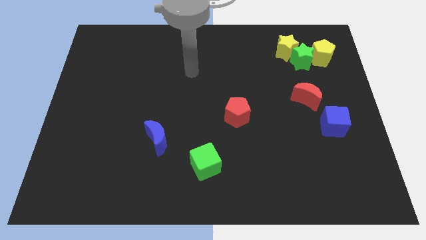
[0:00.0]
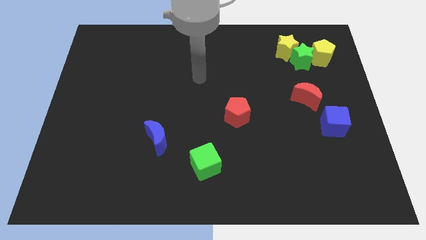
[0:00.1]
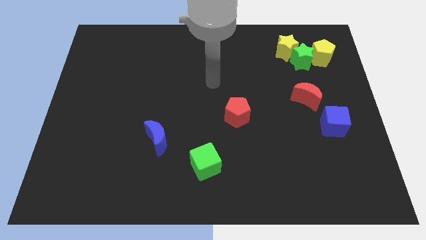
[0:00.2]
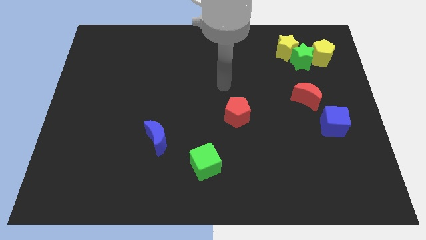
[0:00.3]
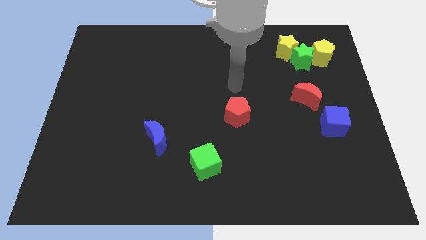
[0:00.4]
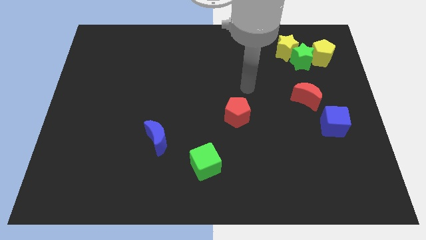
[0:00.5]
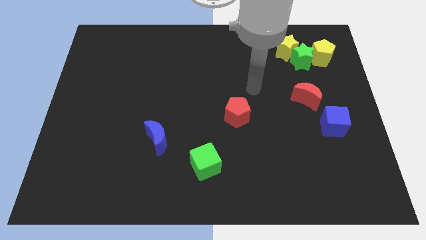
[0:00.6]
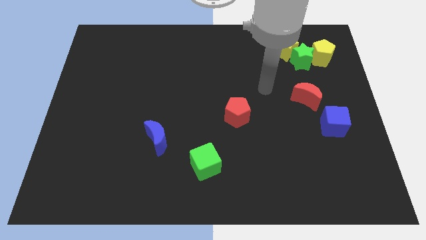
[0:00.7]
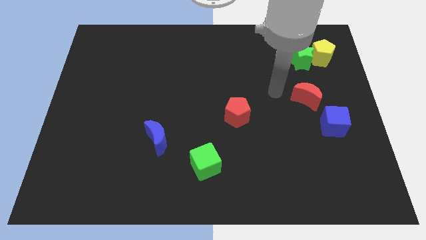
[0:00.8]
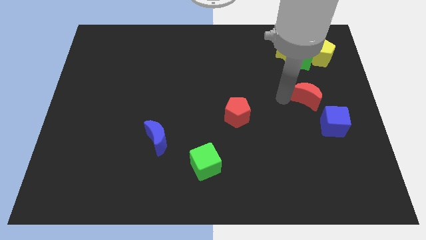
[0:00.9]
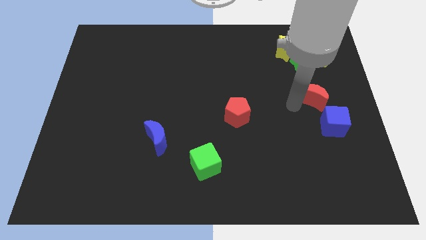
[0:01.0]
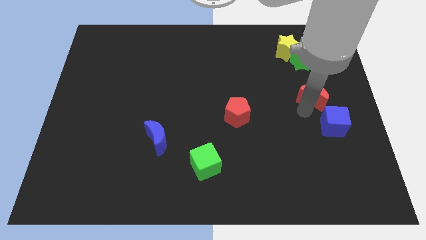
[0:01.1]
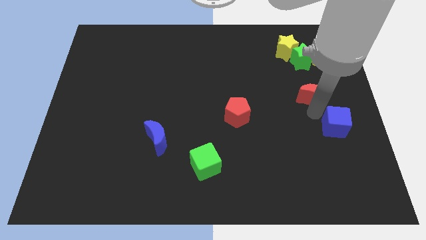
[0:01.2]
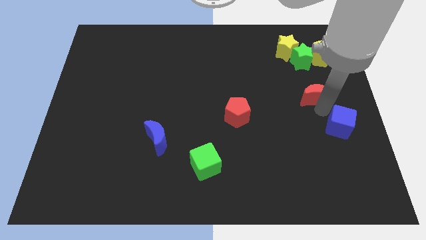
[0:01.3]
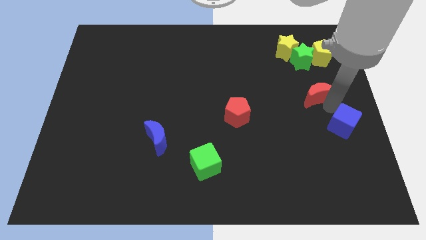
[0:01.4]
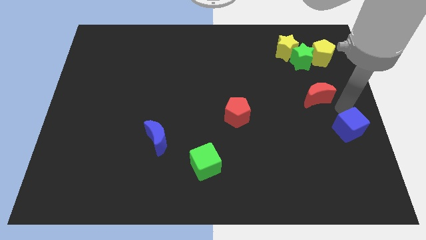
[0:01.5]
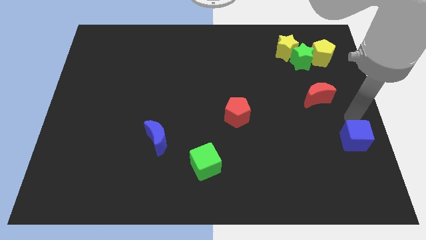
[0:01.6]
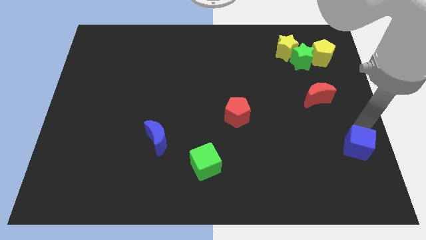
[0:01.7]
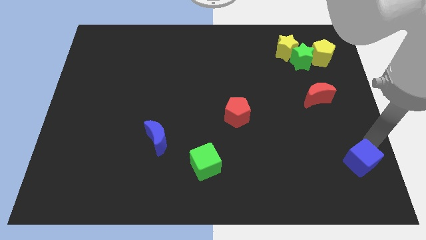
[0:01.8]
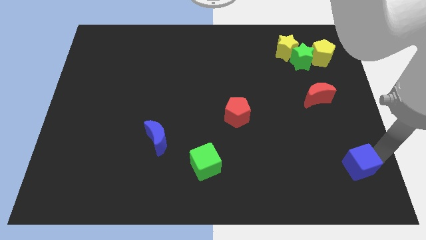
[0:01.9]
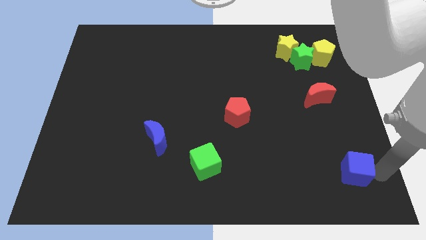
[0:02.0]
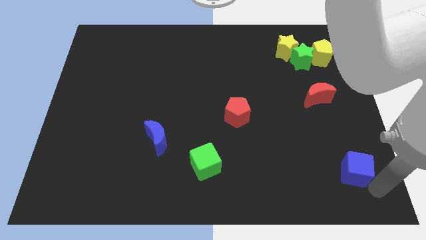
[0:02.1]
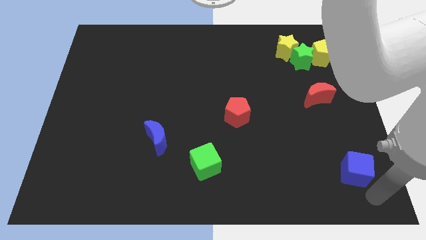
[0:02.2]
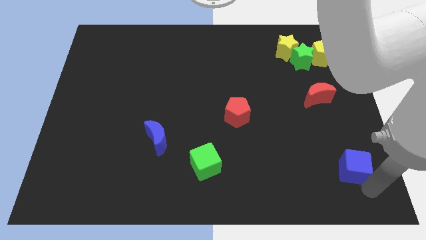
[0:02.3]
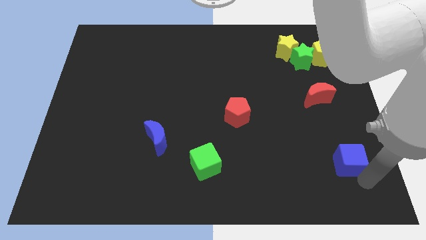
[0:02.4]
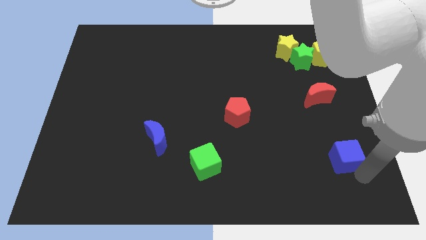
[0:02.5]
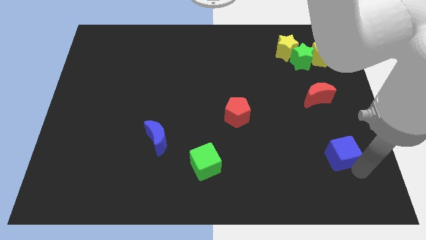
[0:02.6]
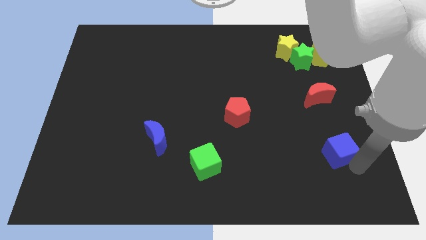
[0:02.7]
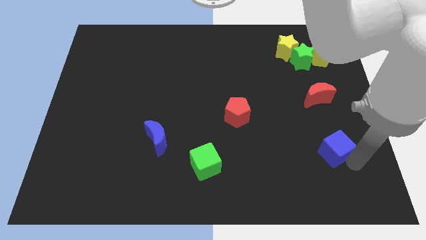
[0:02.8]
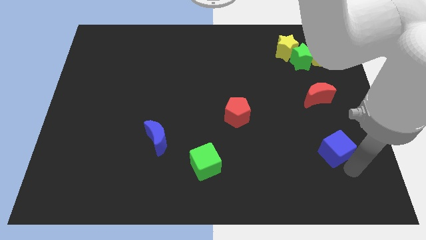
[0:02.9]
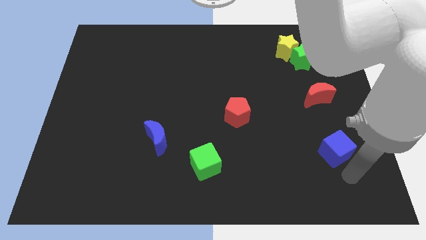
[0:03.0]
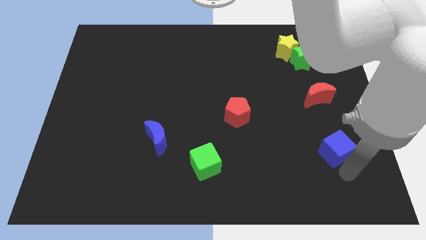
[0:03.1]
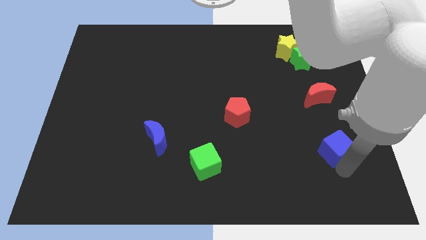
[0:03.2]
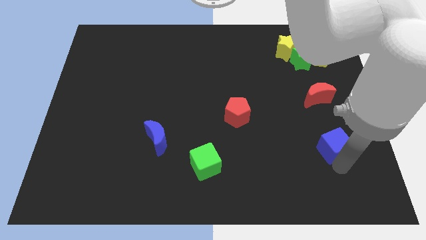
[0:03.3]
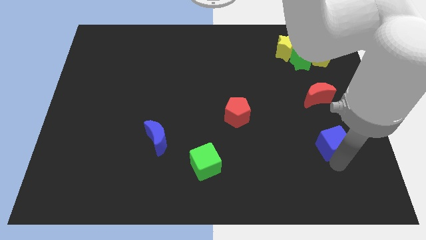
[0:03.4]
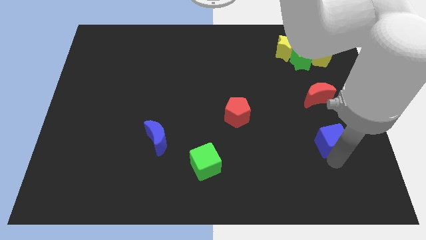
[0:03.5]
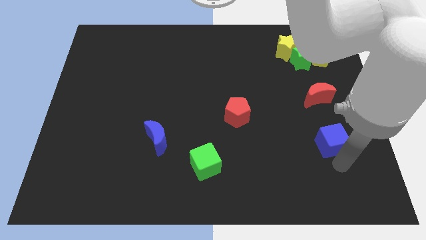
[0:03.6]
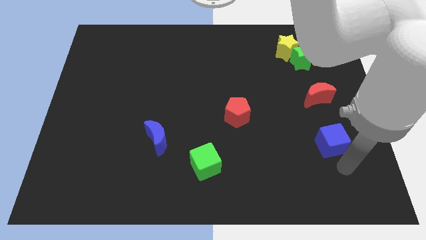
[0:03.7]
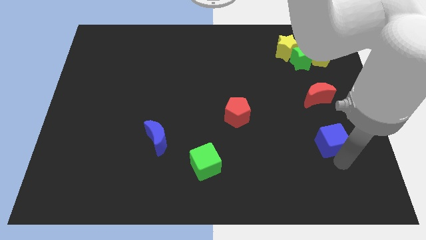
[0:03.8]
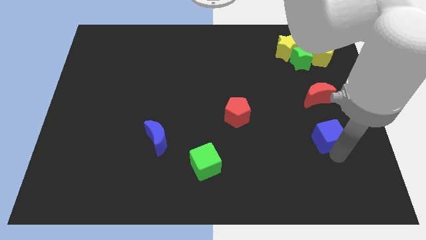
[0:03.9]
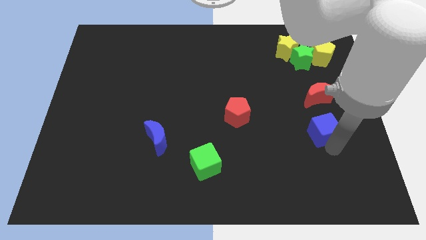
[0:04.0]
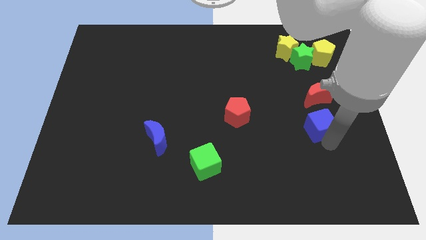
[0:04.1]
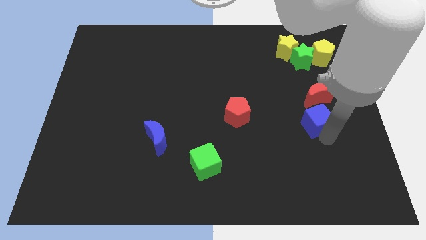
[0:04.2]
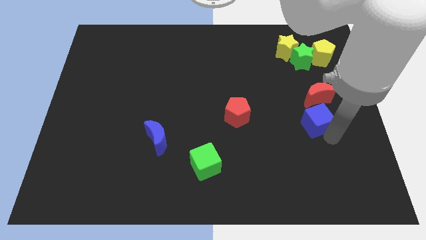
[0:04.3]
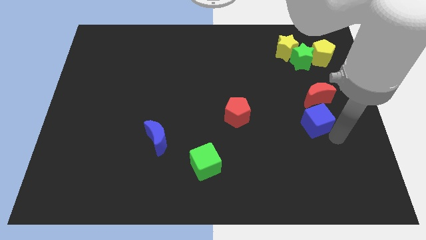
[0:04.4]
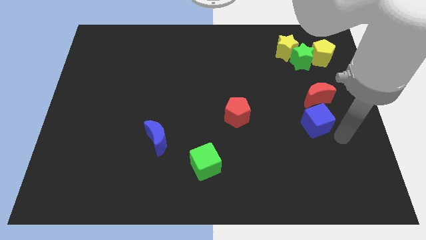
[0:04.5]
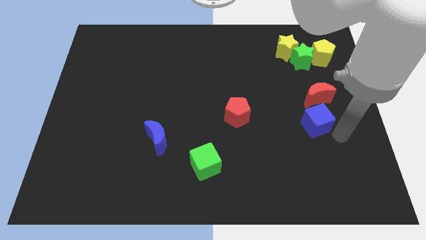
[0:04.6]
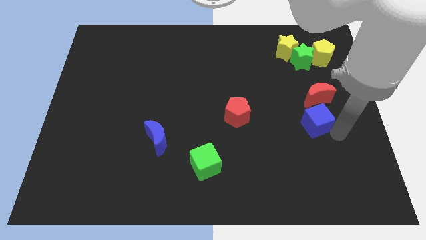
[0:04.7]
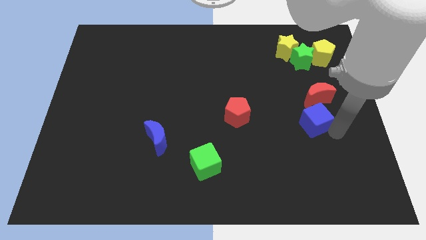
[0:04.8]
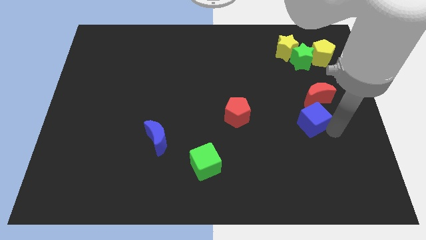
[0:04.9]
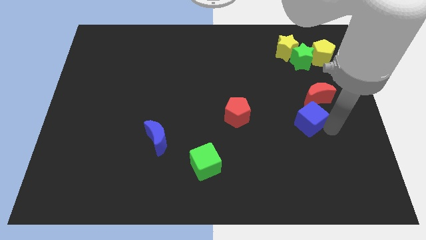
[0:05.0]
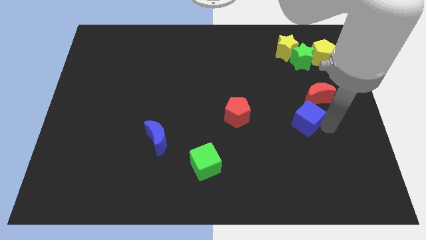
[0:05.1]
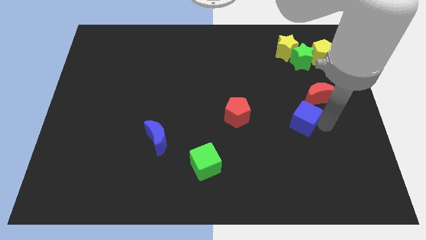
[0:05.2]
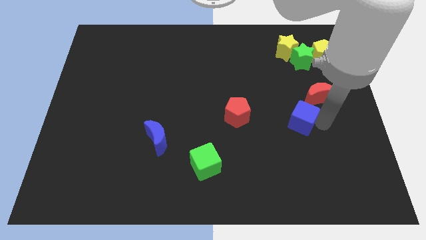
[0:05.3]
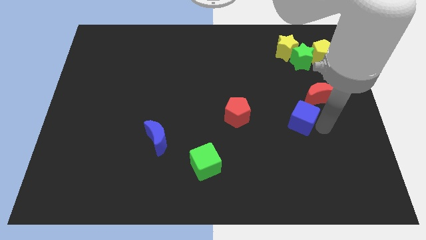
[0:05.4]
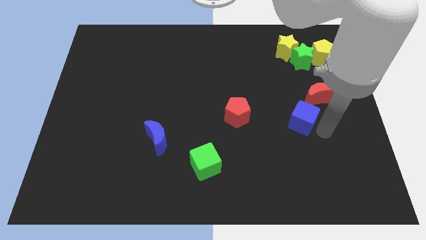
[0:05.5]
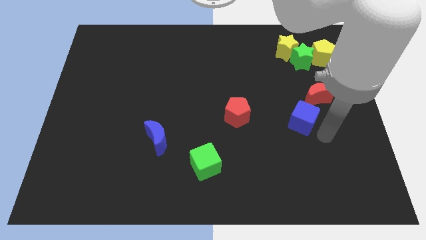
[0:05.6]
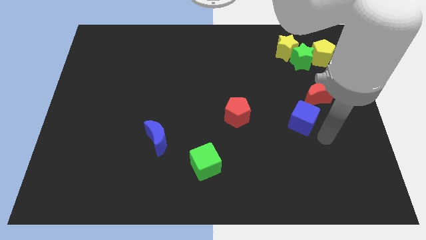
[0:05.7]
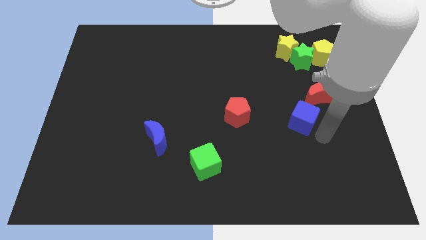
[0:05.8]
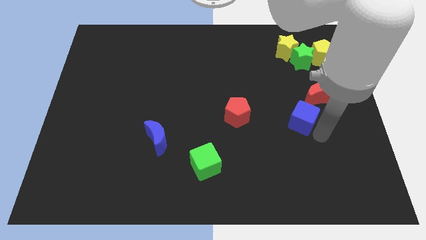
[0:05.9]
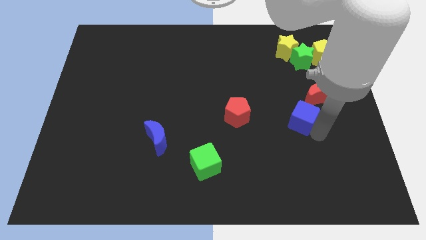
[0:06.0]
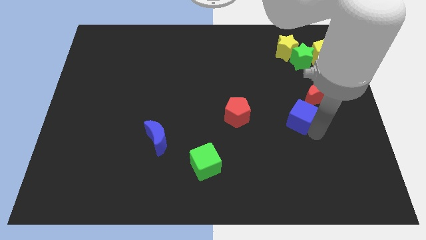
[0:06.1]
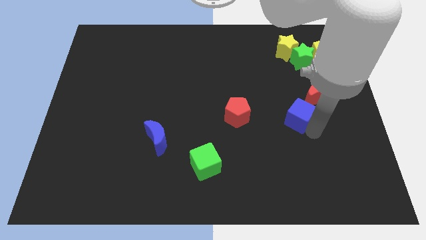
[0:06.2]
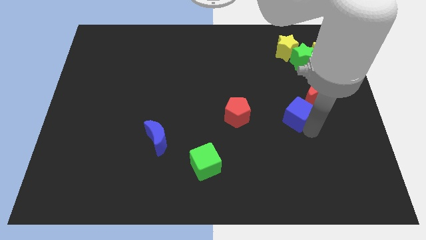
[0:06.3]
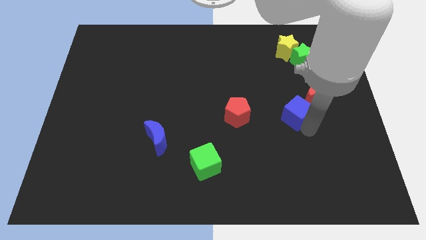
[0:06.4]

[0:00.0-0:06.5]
slide the blue cube diagonally upwards and left somewhat

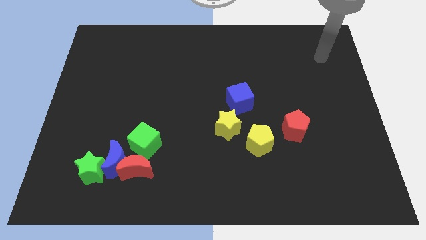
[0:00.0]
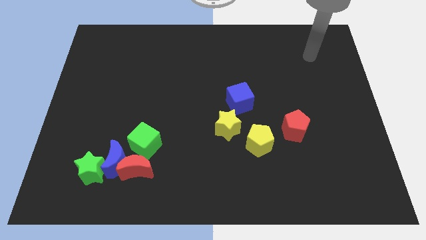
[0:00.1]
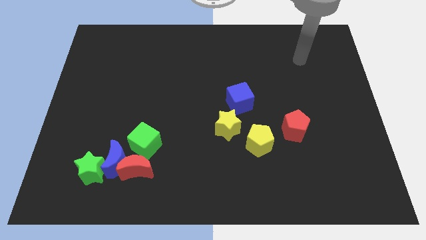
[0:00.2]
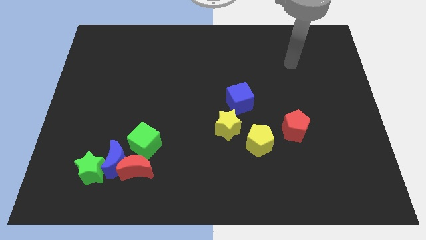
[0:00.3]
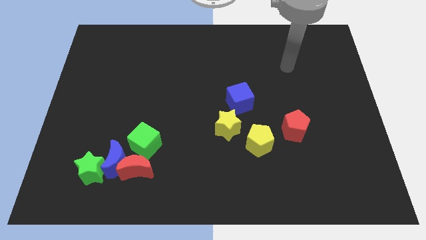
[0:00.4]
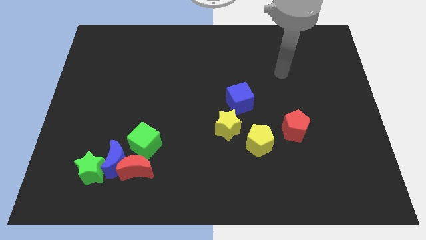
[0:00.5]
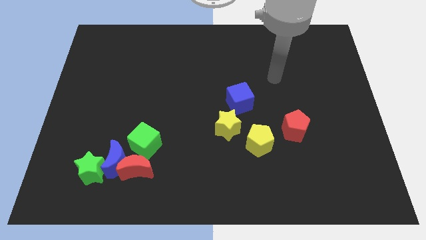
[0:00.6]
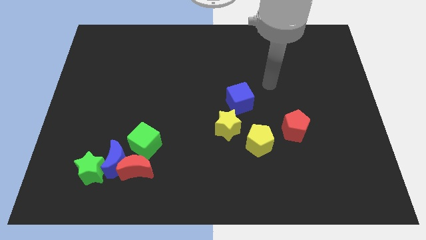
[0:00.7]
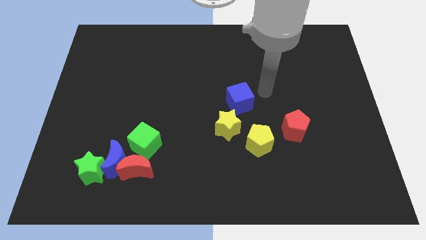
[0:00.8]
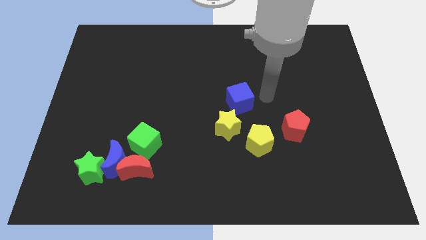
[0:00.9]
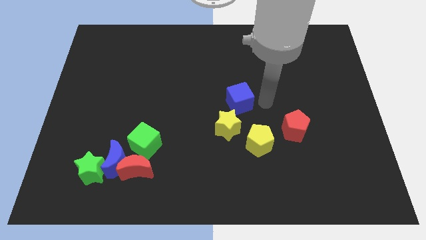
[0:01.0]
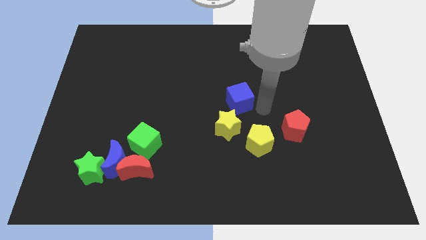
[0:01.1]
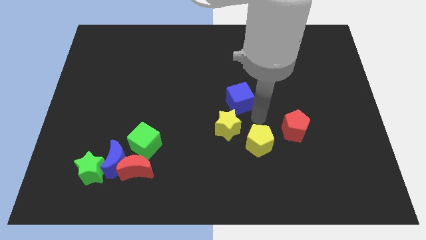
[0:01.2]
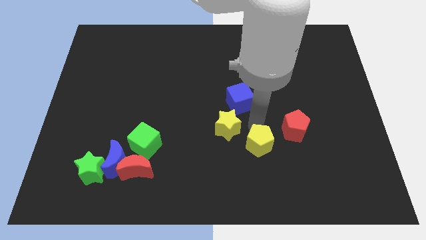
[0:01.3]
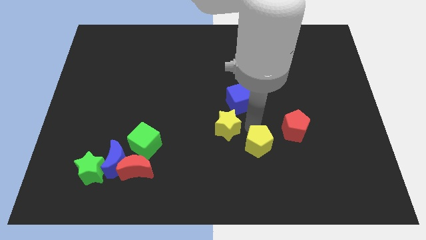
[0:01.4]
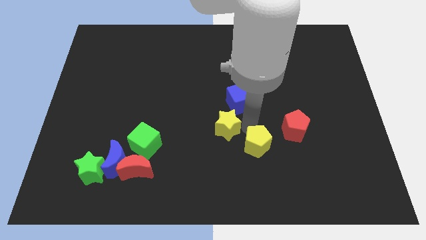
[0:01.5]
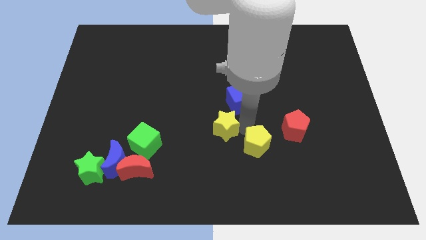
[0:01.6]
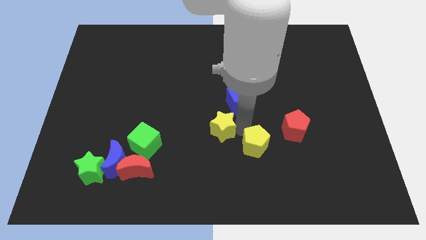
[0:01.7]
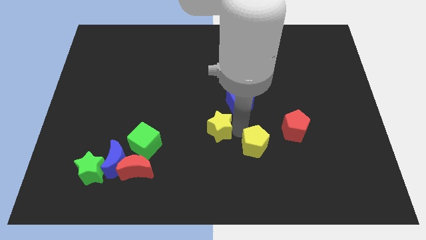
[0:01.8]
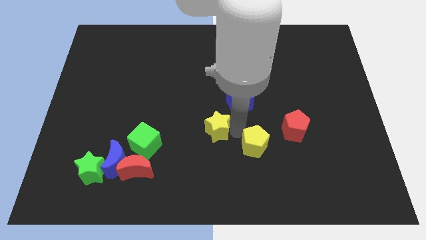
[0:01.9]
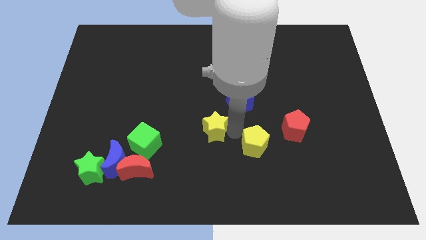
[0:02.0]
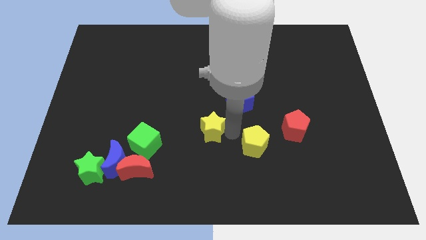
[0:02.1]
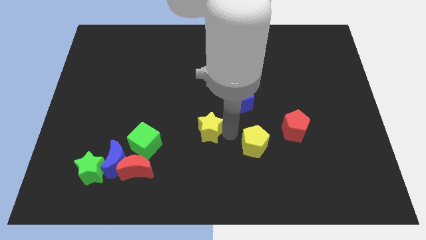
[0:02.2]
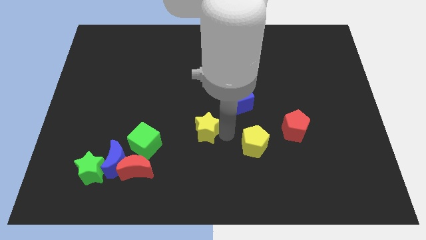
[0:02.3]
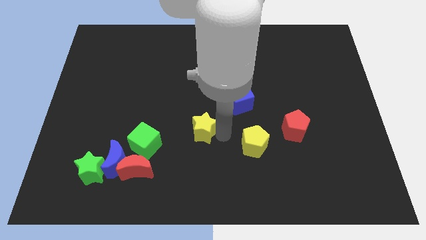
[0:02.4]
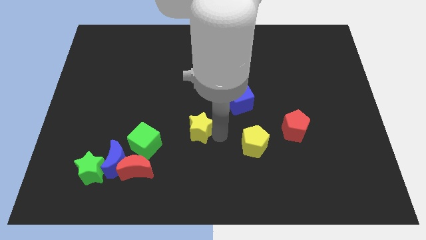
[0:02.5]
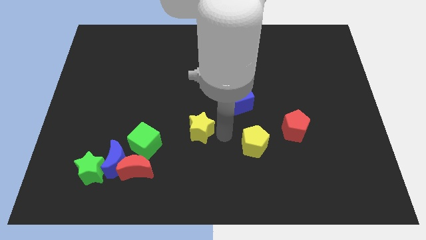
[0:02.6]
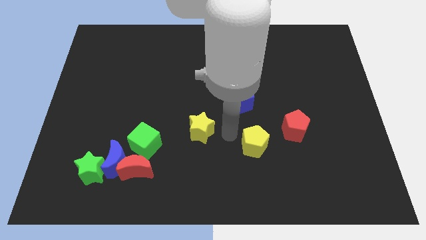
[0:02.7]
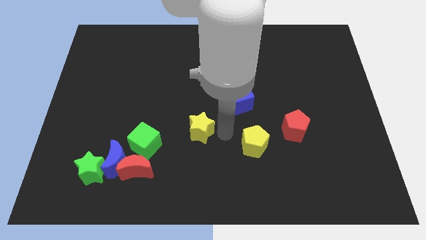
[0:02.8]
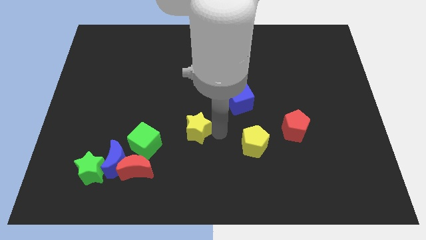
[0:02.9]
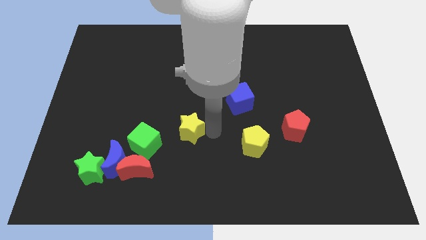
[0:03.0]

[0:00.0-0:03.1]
push the yellow star a bit left
